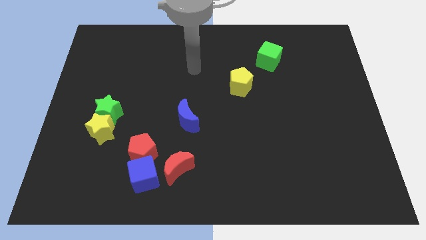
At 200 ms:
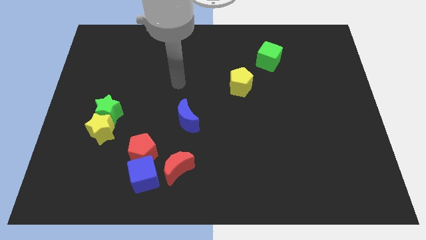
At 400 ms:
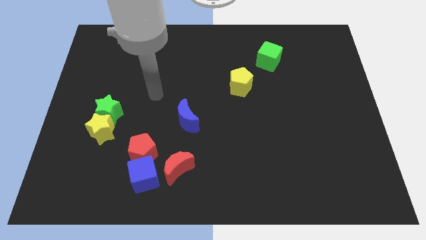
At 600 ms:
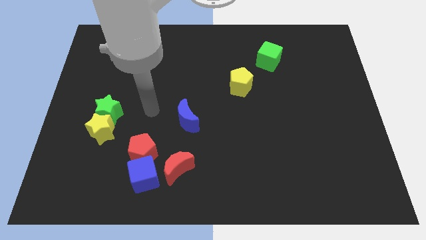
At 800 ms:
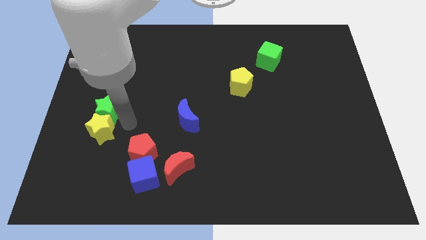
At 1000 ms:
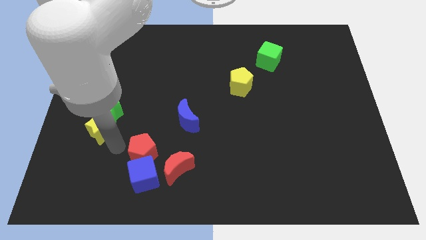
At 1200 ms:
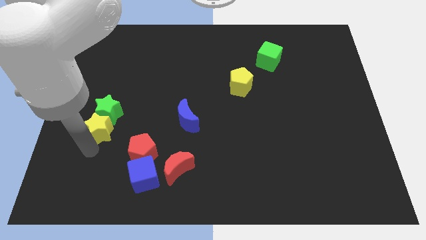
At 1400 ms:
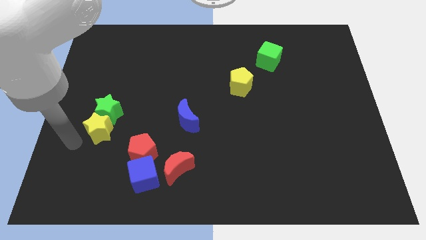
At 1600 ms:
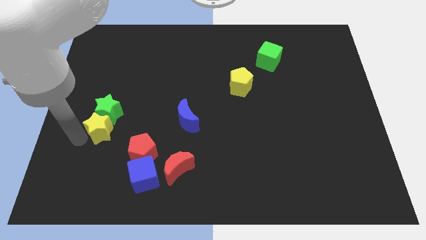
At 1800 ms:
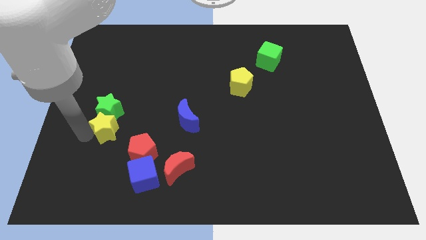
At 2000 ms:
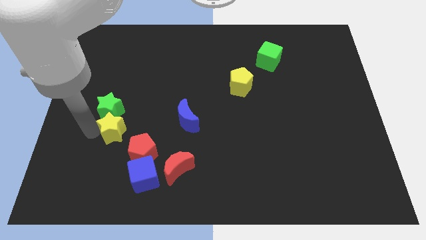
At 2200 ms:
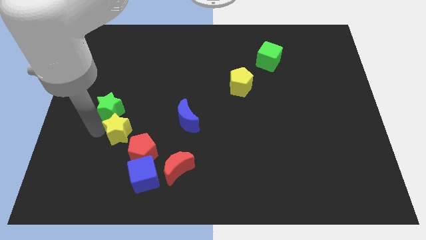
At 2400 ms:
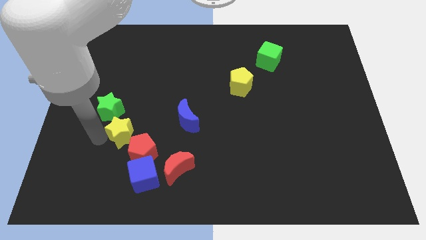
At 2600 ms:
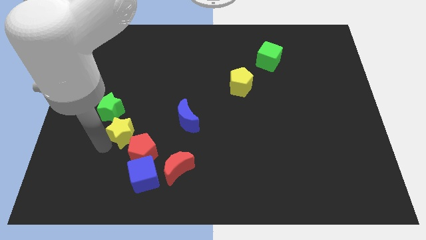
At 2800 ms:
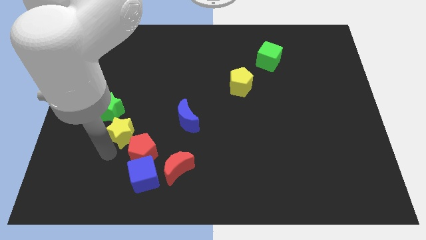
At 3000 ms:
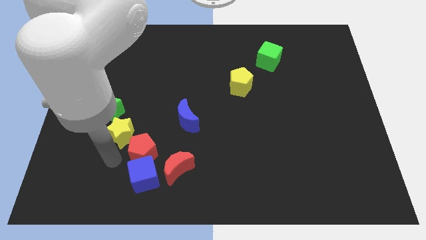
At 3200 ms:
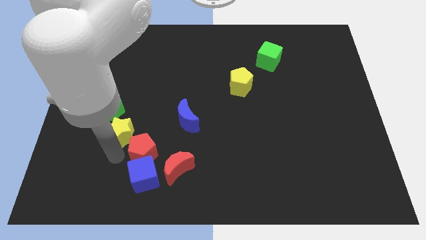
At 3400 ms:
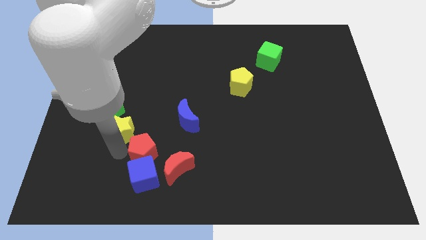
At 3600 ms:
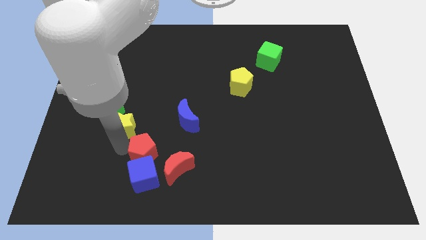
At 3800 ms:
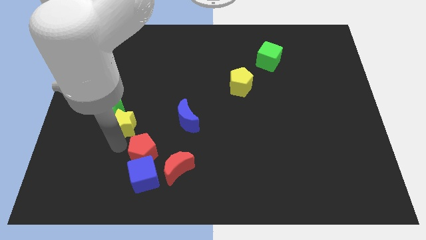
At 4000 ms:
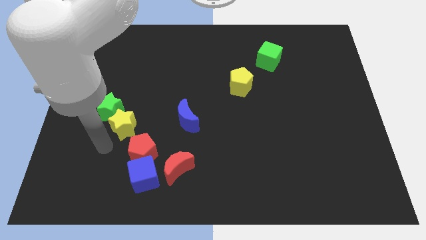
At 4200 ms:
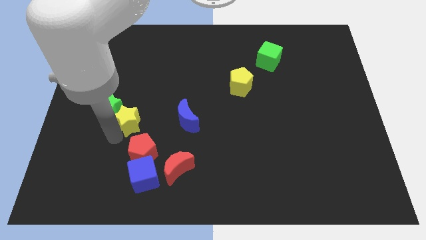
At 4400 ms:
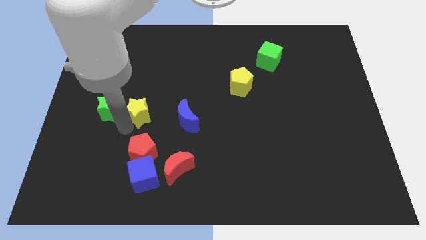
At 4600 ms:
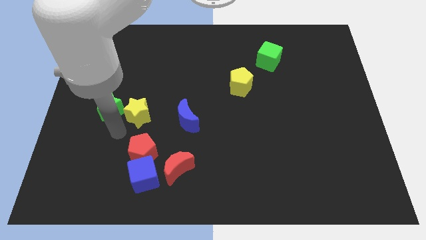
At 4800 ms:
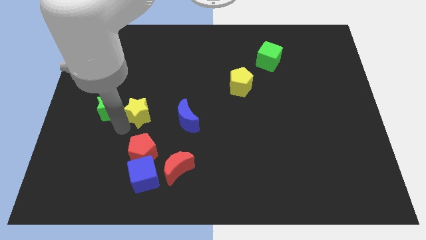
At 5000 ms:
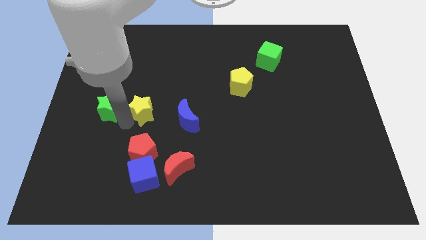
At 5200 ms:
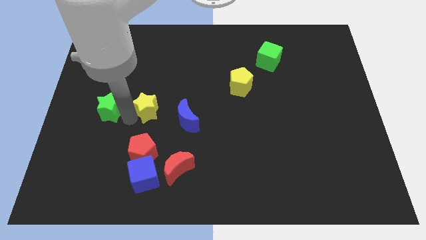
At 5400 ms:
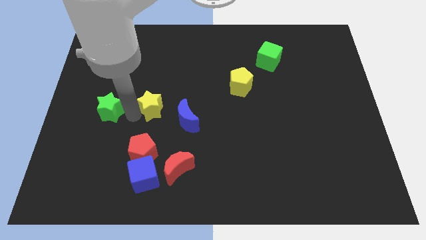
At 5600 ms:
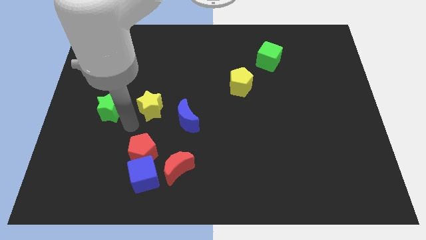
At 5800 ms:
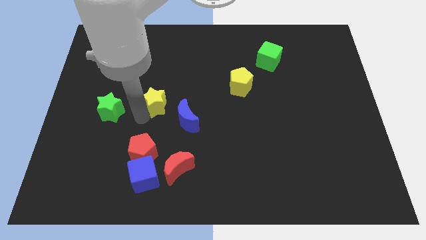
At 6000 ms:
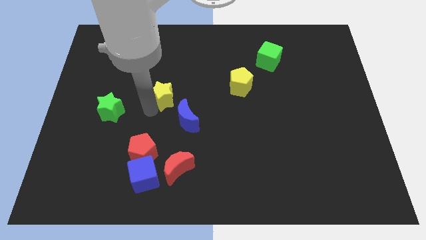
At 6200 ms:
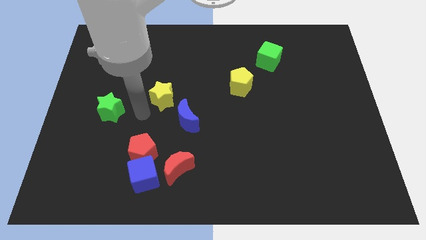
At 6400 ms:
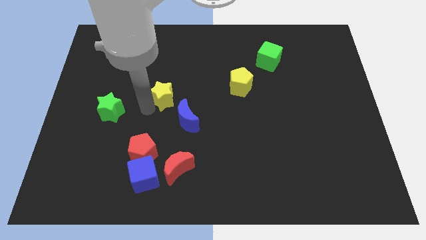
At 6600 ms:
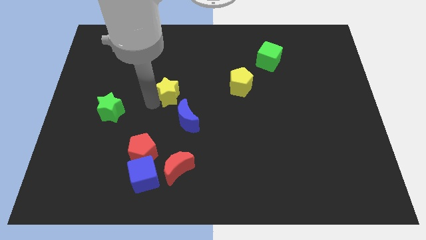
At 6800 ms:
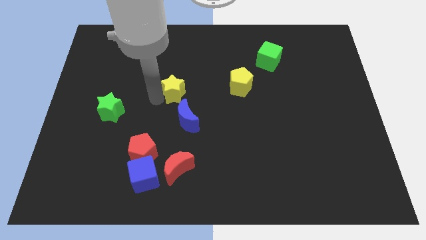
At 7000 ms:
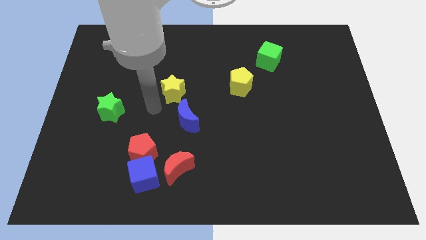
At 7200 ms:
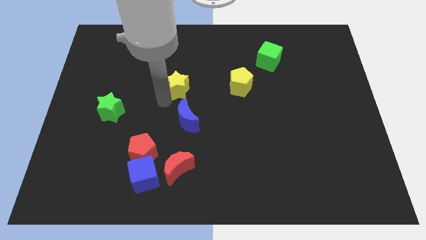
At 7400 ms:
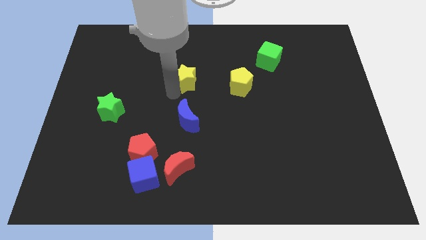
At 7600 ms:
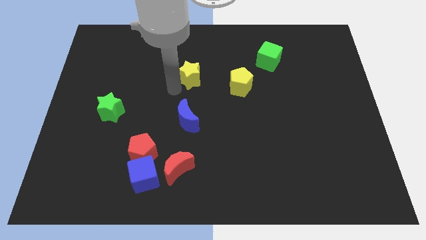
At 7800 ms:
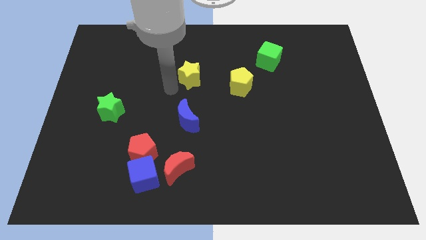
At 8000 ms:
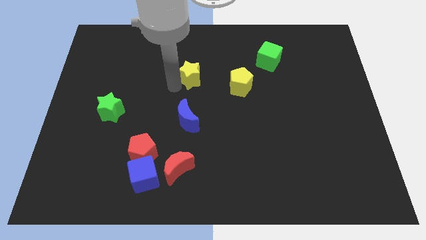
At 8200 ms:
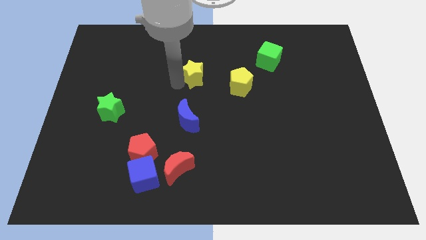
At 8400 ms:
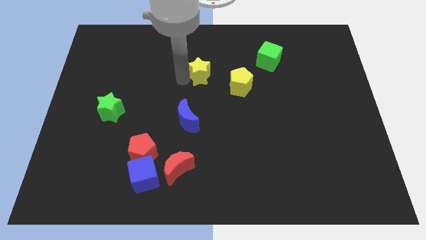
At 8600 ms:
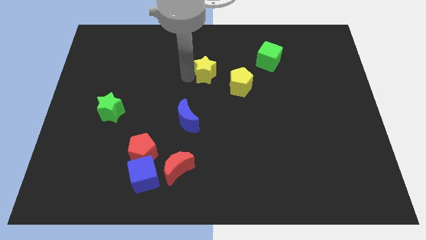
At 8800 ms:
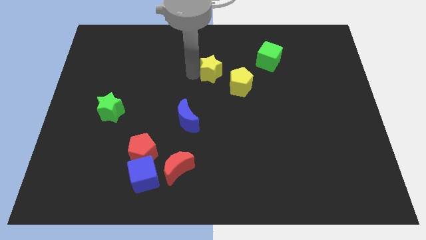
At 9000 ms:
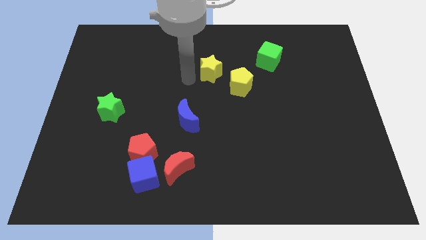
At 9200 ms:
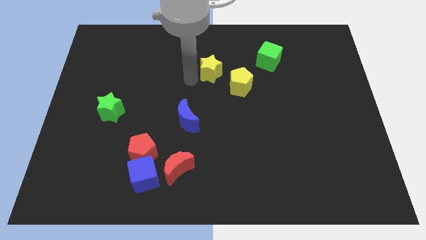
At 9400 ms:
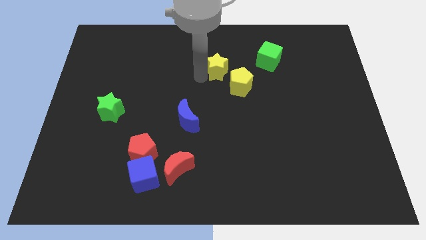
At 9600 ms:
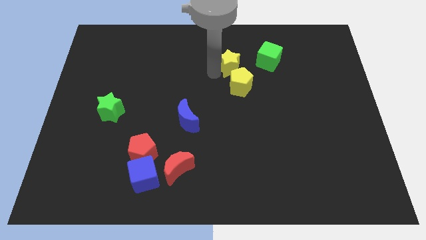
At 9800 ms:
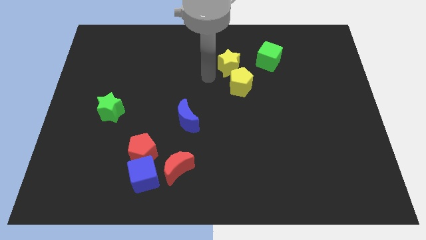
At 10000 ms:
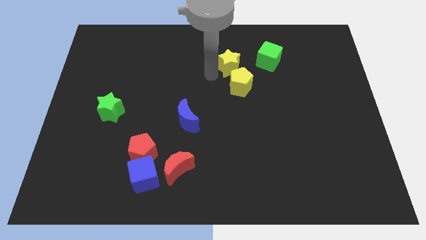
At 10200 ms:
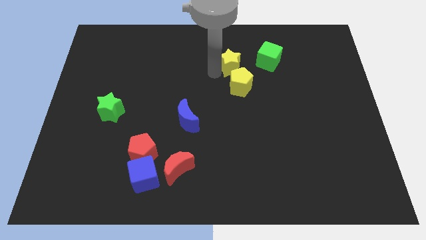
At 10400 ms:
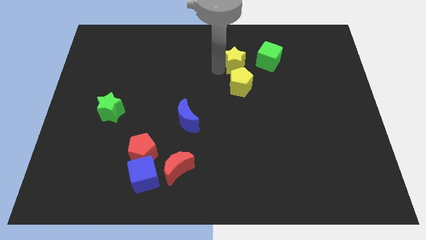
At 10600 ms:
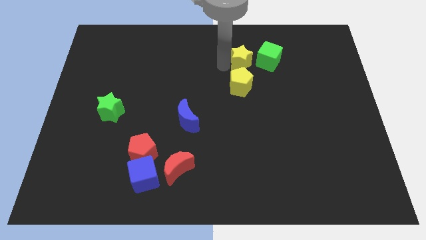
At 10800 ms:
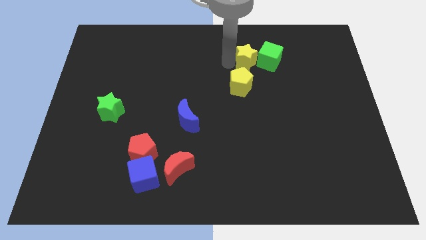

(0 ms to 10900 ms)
move the yellow star next to the green cube

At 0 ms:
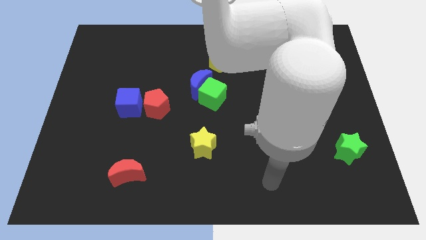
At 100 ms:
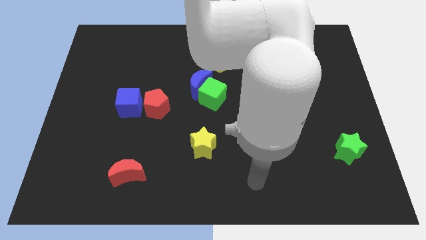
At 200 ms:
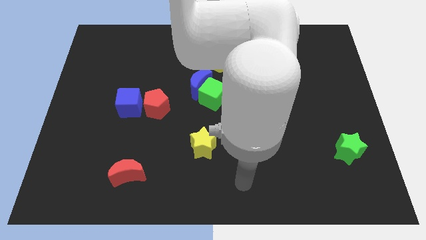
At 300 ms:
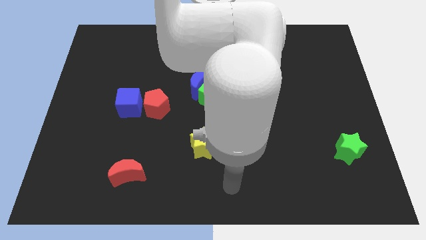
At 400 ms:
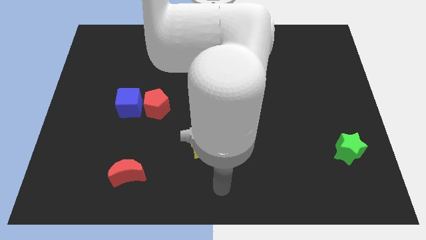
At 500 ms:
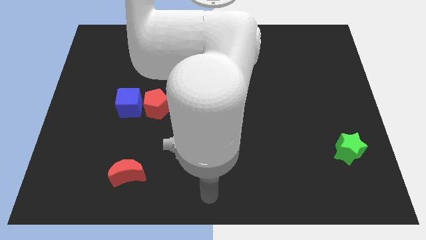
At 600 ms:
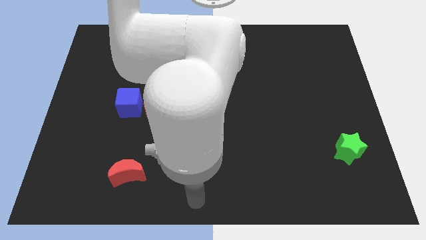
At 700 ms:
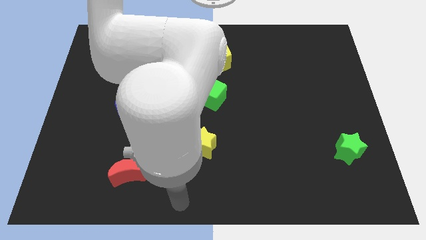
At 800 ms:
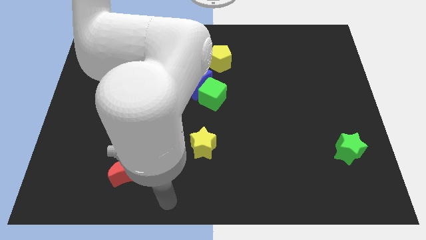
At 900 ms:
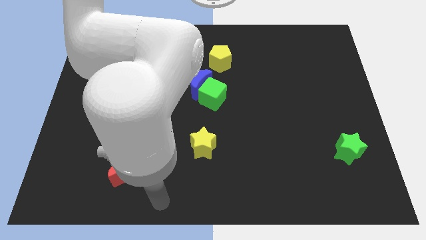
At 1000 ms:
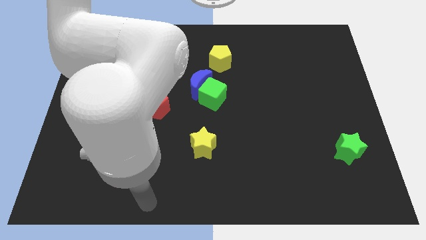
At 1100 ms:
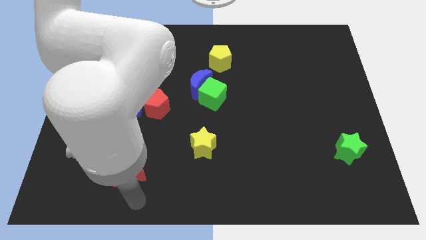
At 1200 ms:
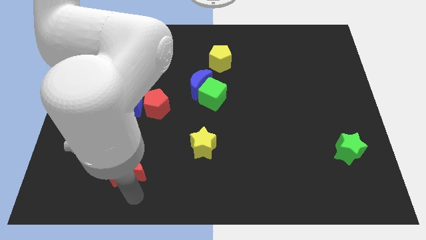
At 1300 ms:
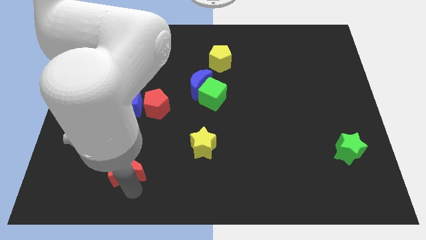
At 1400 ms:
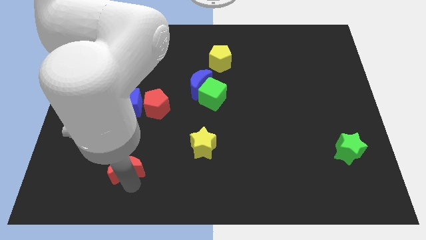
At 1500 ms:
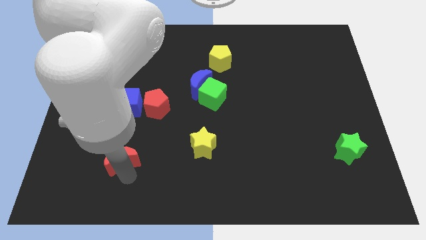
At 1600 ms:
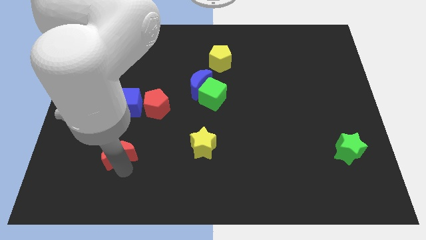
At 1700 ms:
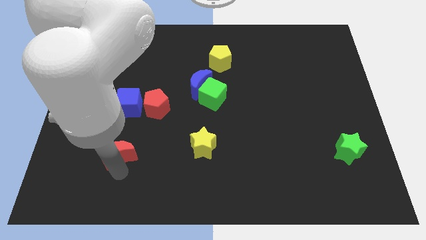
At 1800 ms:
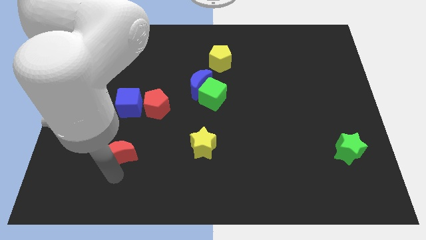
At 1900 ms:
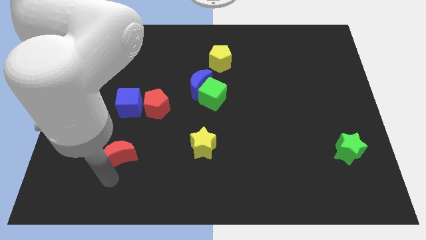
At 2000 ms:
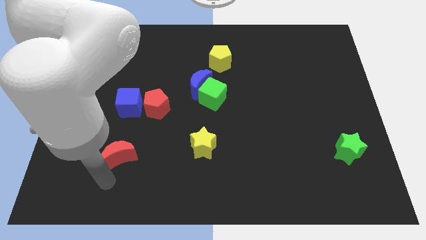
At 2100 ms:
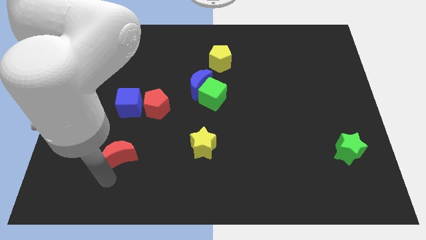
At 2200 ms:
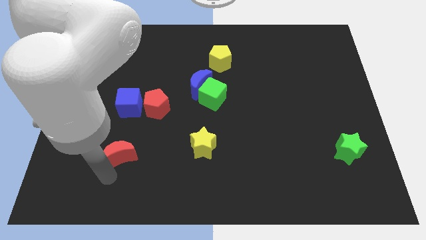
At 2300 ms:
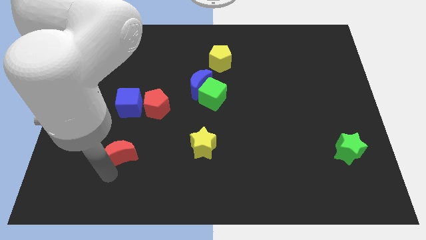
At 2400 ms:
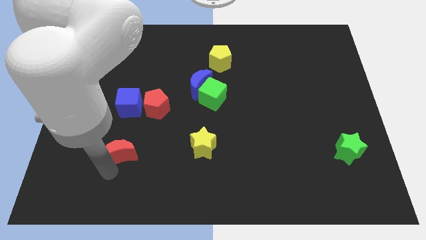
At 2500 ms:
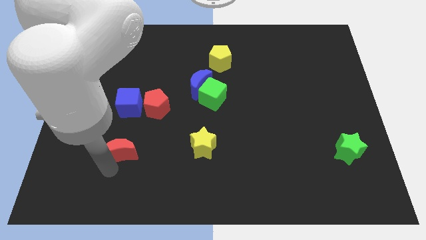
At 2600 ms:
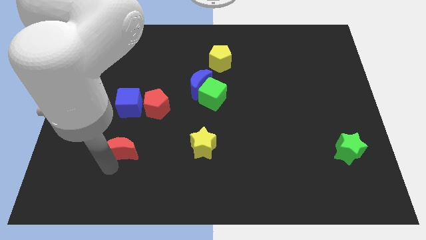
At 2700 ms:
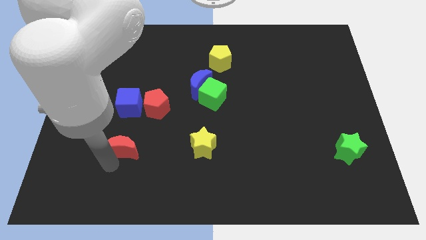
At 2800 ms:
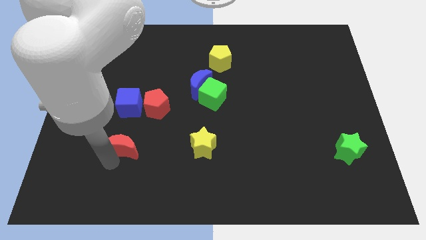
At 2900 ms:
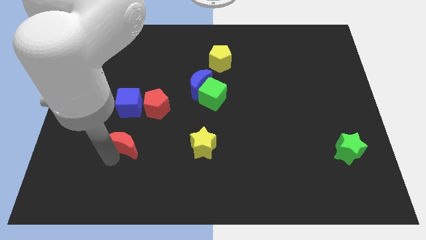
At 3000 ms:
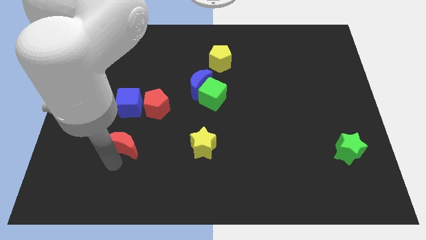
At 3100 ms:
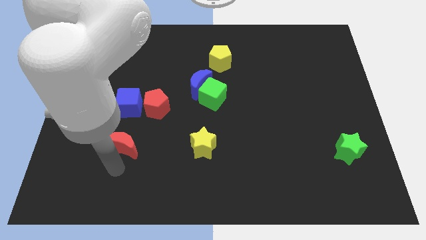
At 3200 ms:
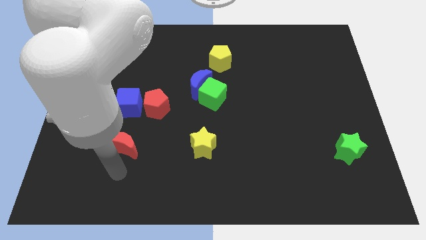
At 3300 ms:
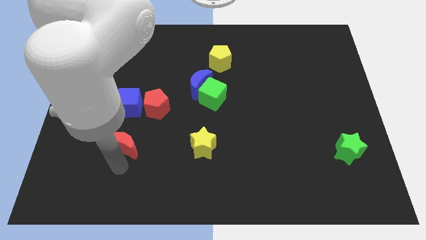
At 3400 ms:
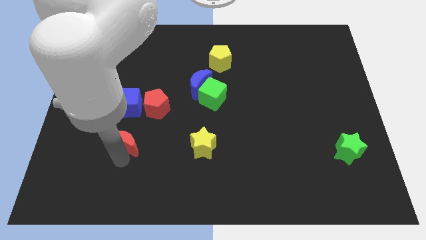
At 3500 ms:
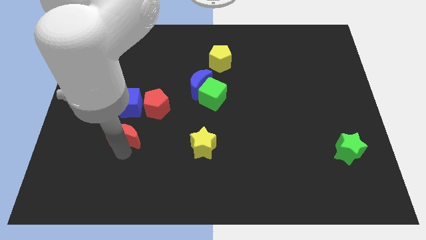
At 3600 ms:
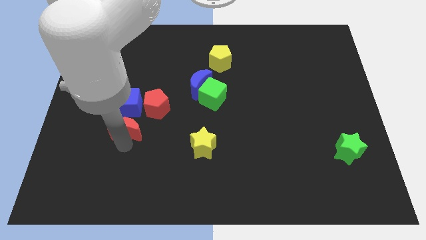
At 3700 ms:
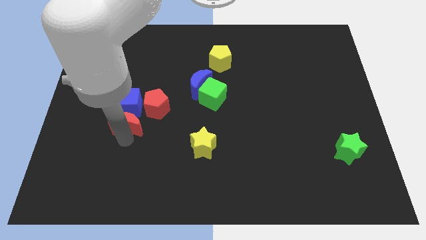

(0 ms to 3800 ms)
put the red moon to the blue cube
